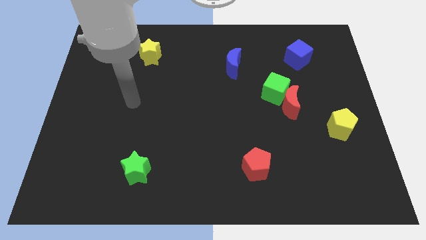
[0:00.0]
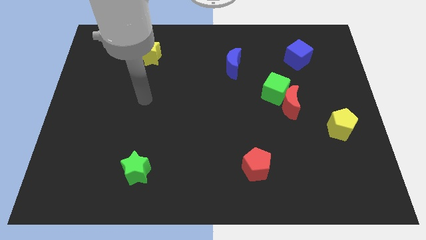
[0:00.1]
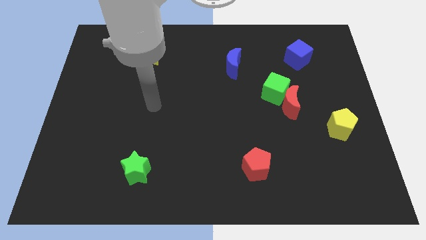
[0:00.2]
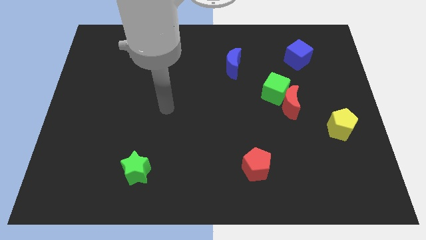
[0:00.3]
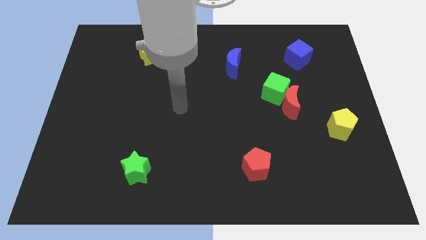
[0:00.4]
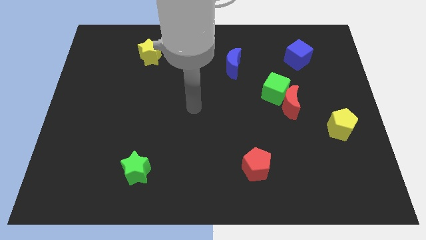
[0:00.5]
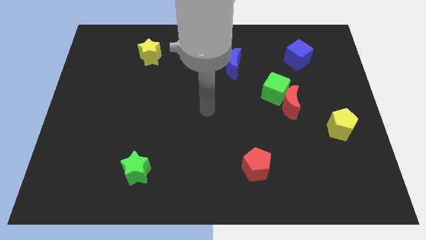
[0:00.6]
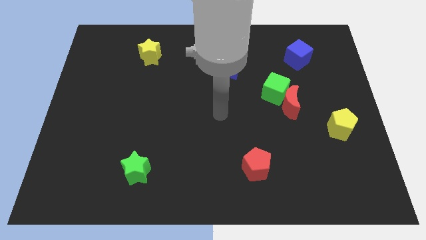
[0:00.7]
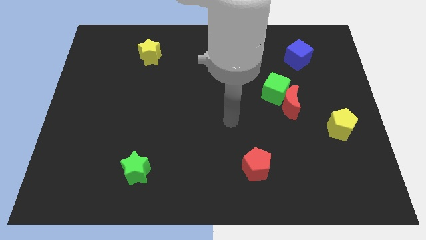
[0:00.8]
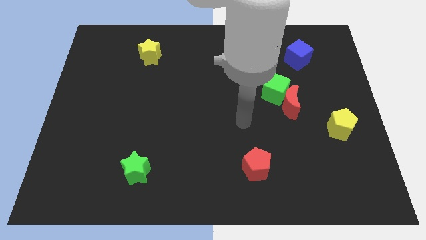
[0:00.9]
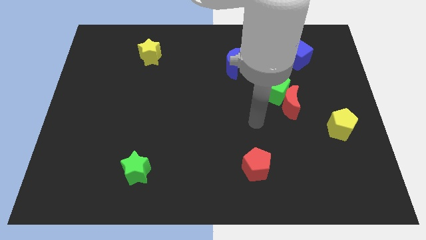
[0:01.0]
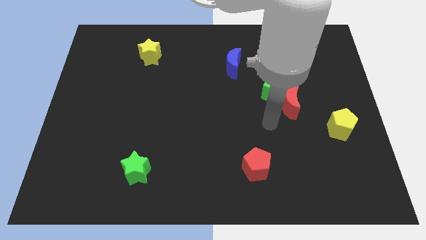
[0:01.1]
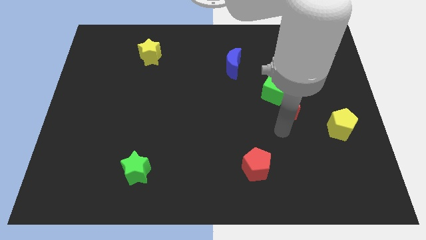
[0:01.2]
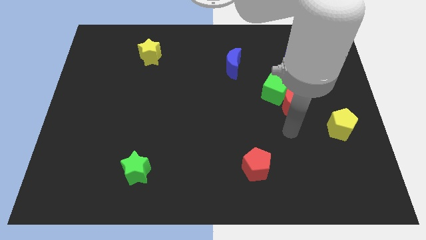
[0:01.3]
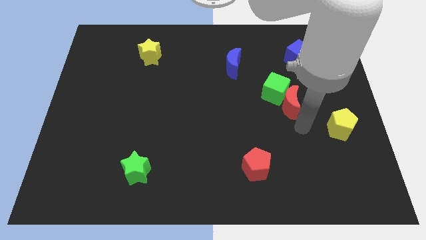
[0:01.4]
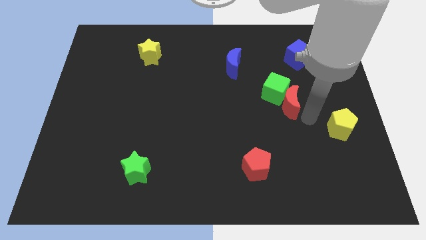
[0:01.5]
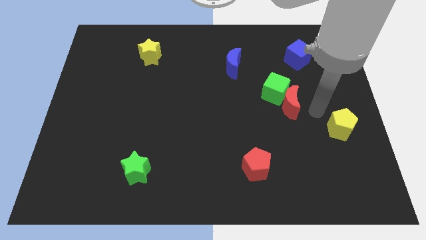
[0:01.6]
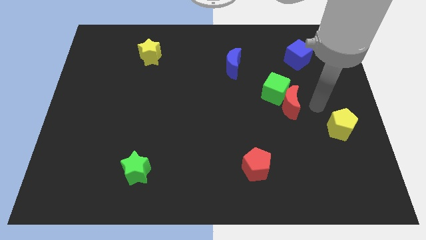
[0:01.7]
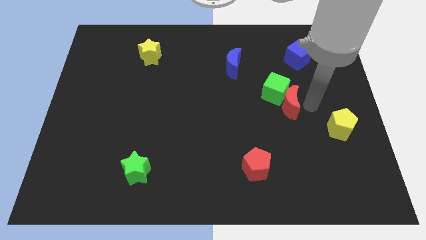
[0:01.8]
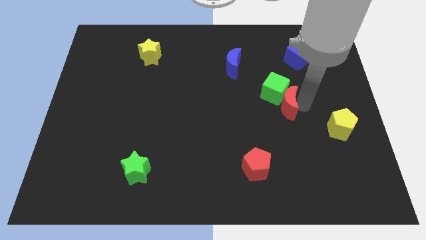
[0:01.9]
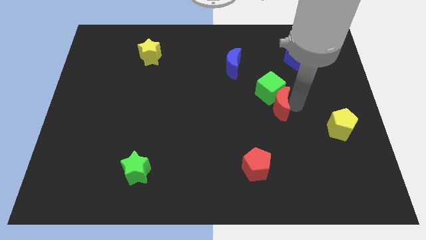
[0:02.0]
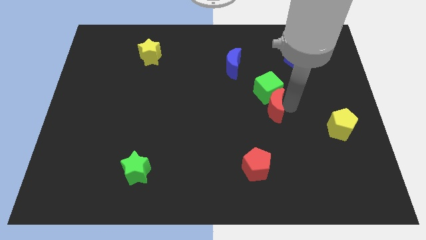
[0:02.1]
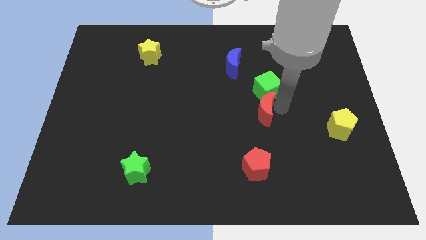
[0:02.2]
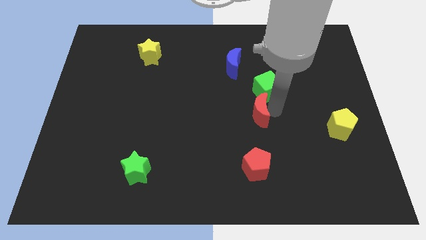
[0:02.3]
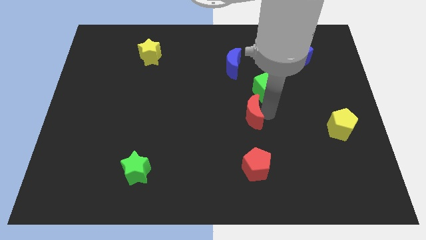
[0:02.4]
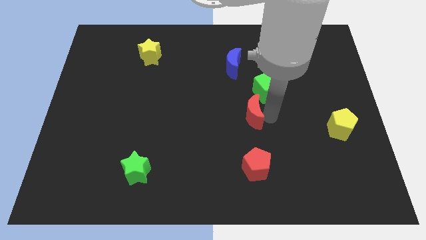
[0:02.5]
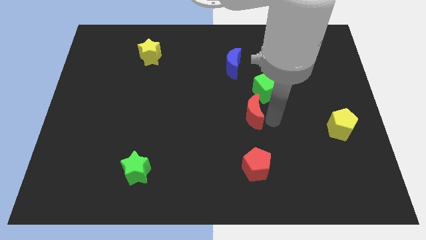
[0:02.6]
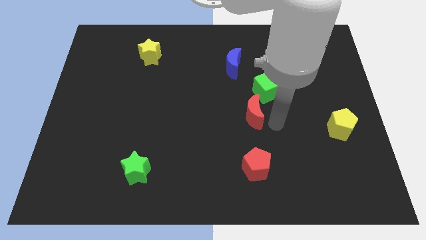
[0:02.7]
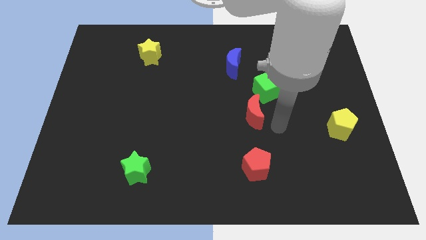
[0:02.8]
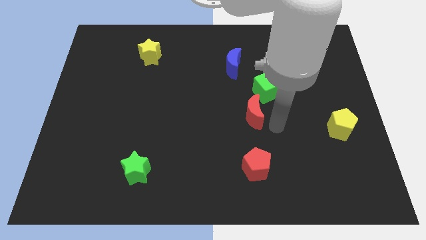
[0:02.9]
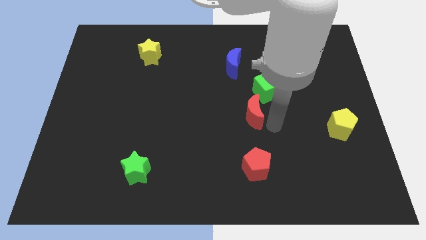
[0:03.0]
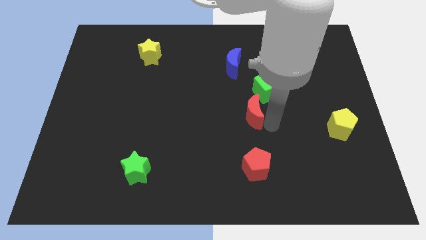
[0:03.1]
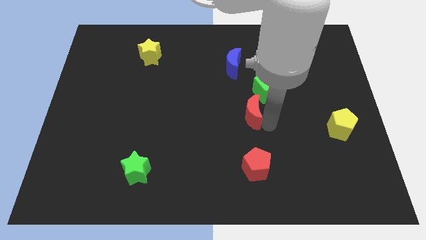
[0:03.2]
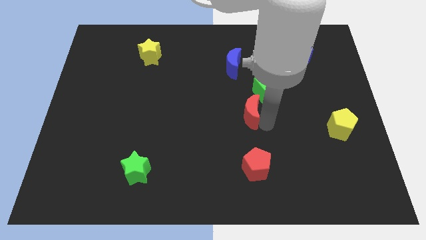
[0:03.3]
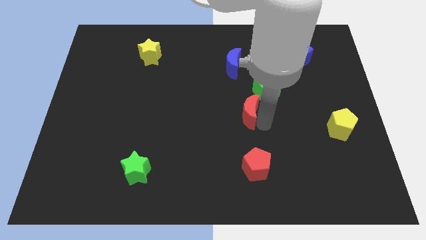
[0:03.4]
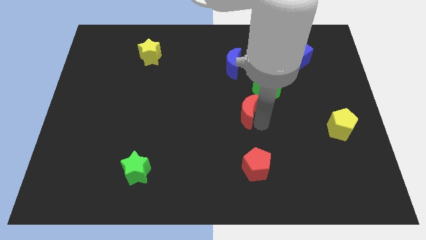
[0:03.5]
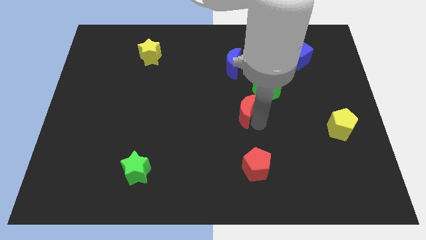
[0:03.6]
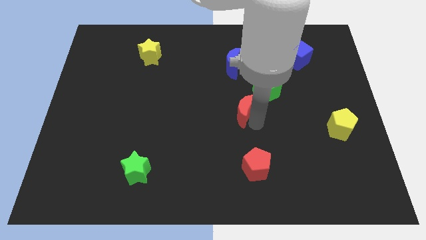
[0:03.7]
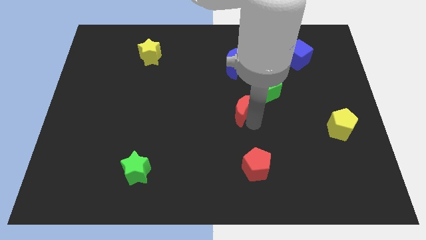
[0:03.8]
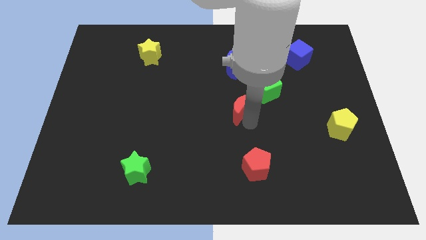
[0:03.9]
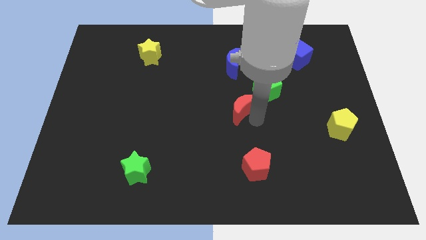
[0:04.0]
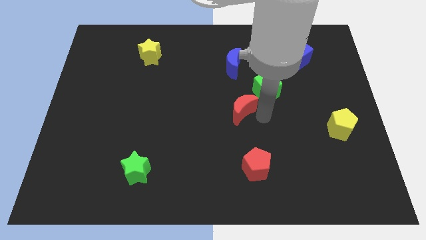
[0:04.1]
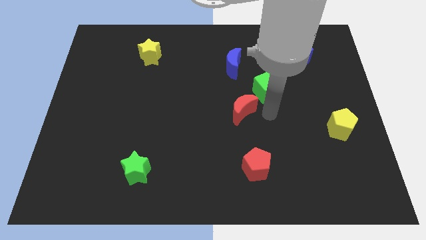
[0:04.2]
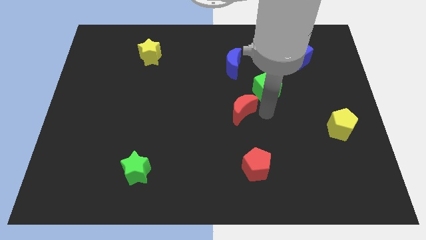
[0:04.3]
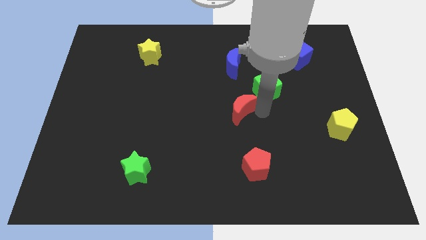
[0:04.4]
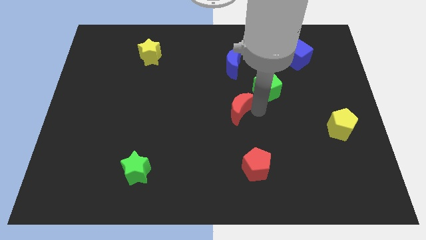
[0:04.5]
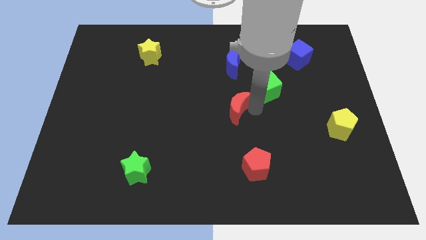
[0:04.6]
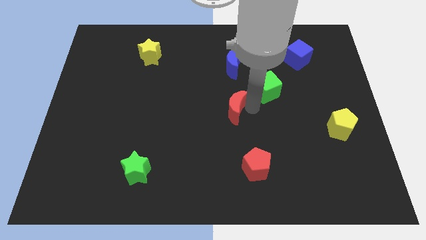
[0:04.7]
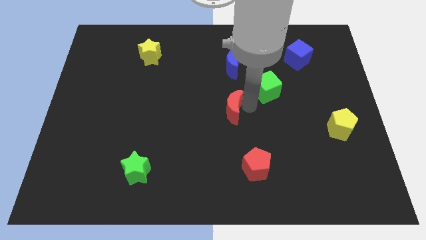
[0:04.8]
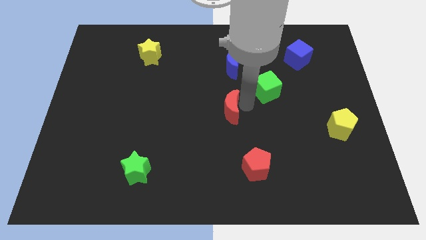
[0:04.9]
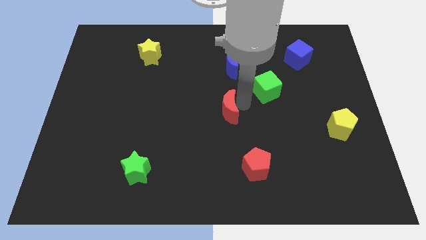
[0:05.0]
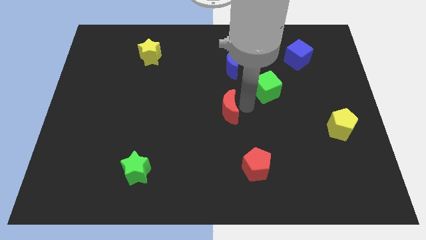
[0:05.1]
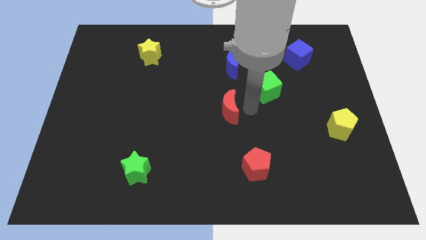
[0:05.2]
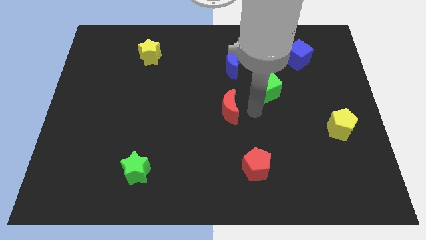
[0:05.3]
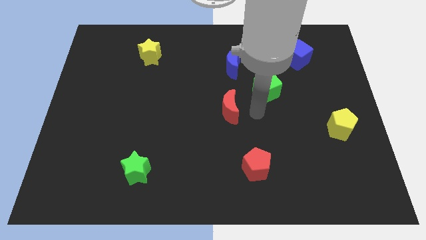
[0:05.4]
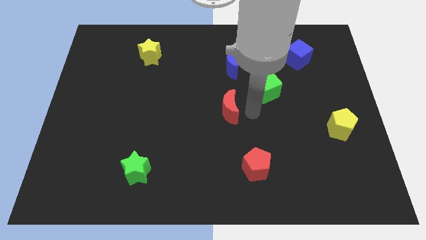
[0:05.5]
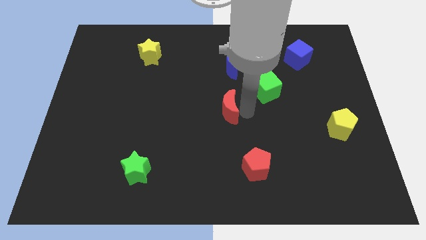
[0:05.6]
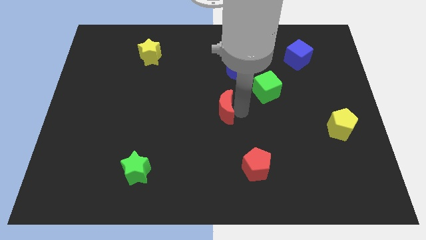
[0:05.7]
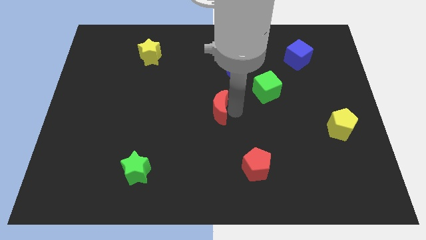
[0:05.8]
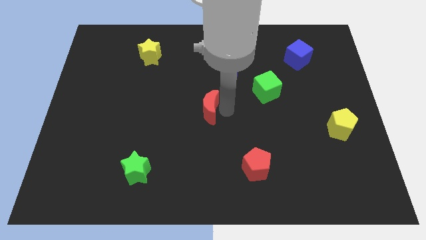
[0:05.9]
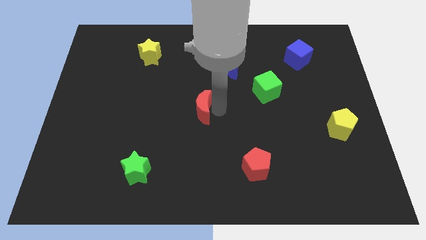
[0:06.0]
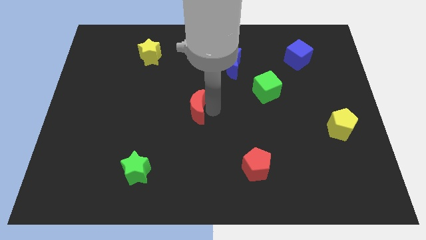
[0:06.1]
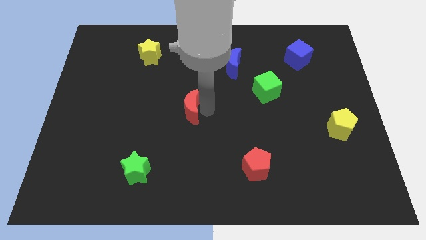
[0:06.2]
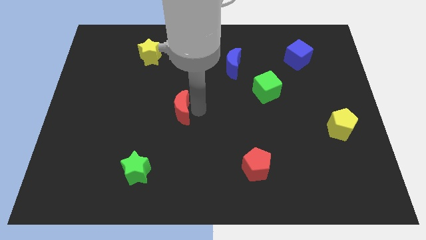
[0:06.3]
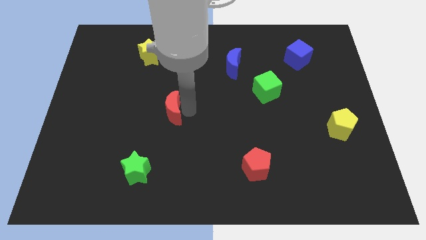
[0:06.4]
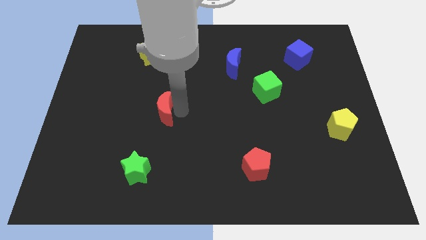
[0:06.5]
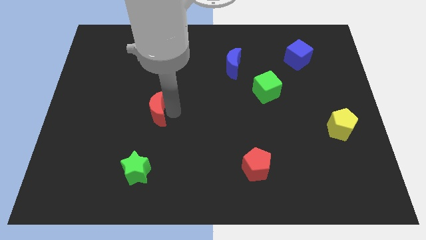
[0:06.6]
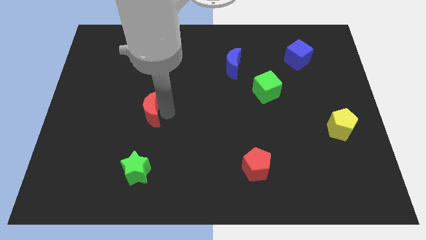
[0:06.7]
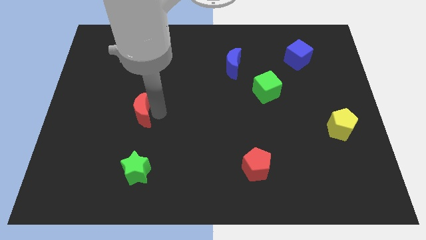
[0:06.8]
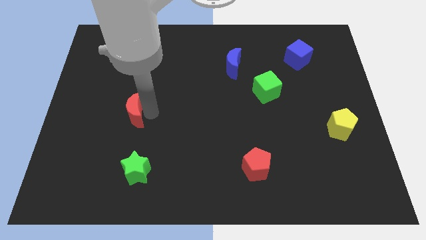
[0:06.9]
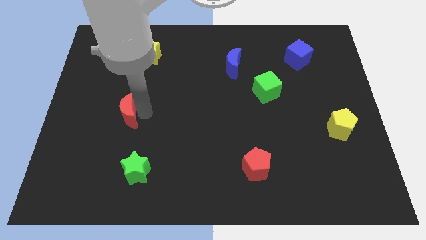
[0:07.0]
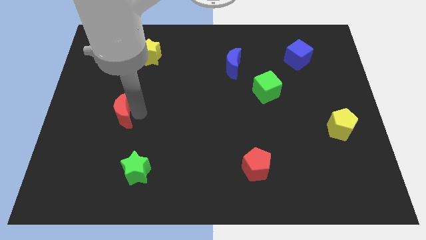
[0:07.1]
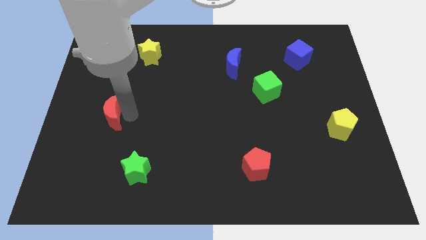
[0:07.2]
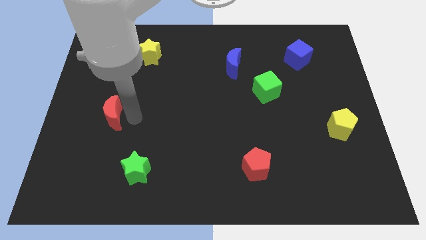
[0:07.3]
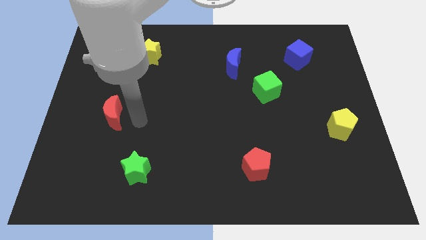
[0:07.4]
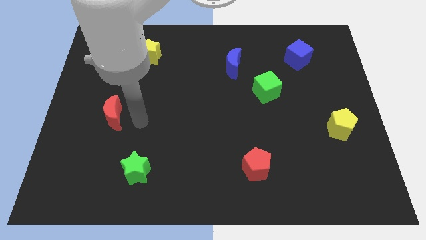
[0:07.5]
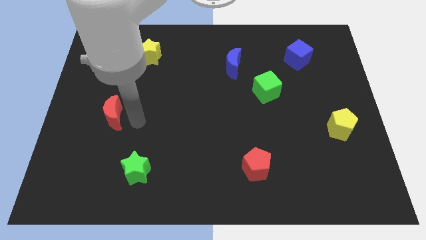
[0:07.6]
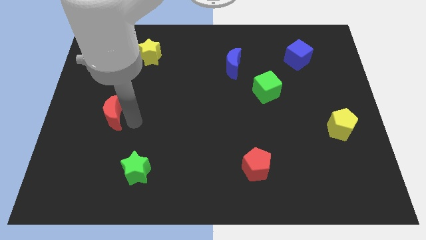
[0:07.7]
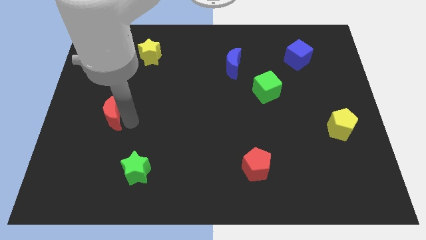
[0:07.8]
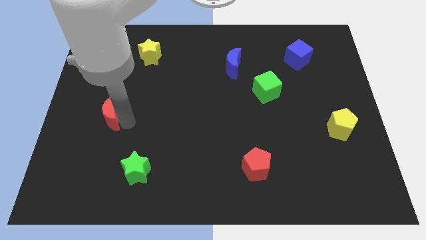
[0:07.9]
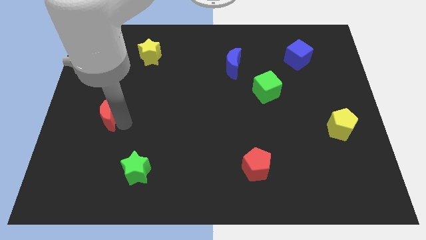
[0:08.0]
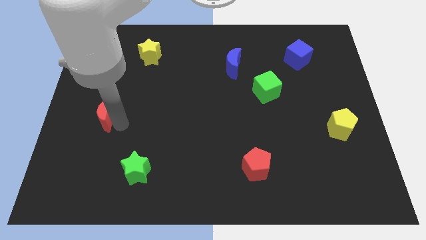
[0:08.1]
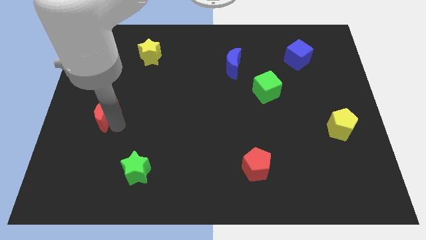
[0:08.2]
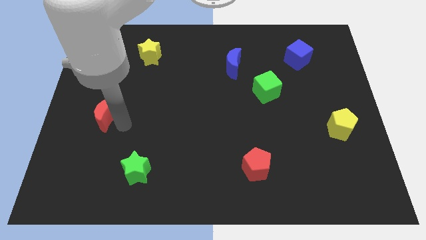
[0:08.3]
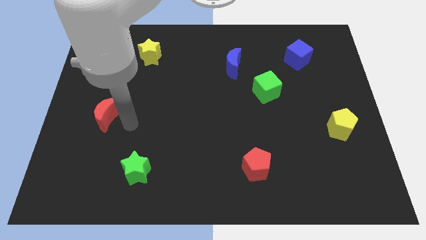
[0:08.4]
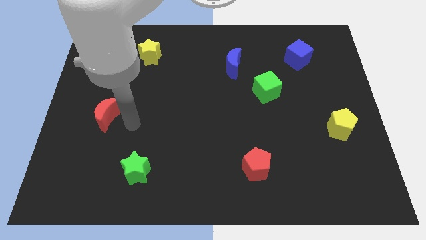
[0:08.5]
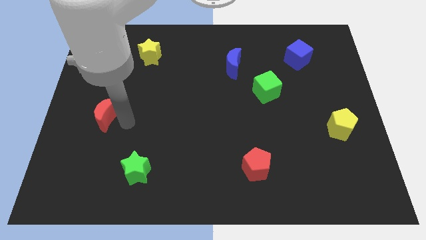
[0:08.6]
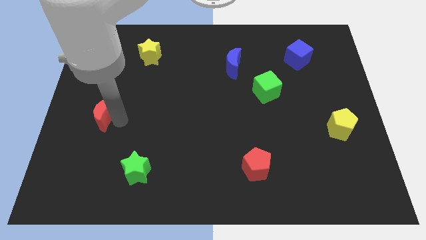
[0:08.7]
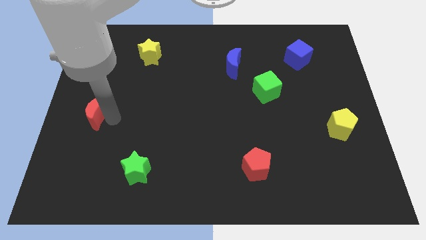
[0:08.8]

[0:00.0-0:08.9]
slide the red moon to the left side of the board
